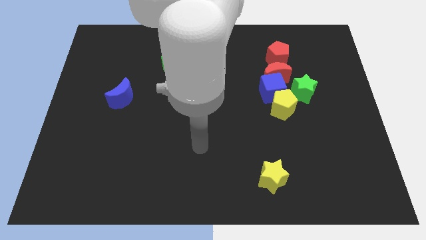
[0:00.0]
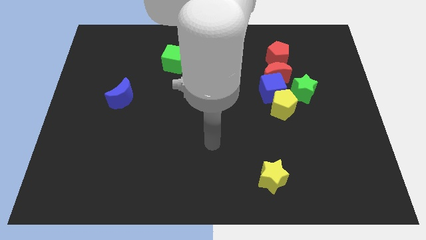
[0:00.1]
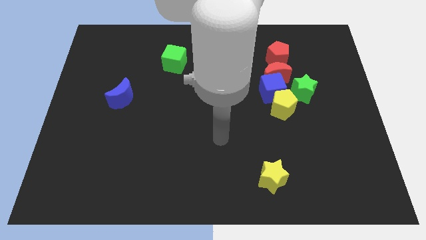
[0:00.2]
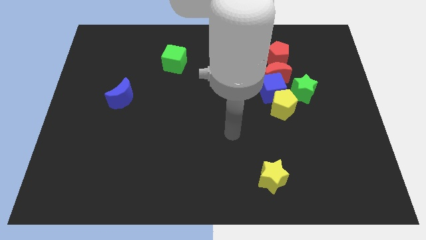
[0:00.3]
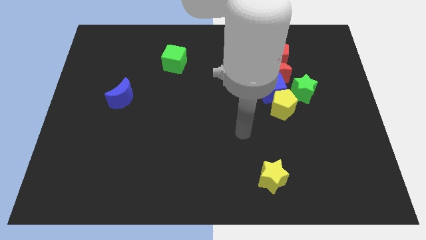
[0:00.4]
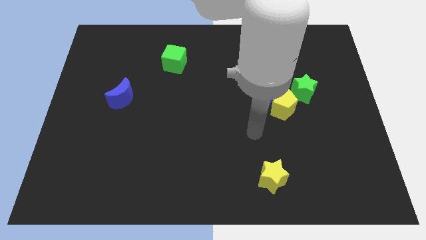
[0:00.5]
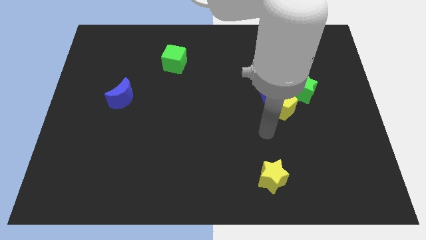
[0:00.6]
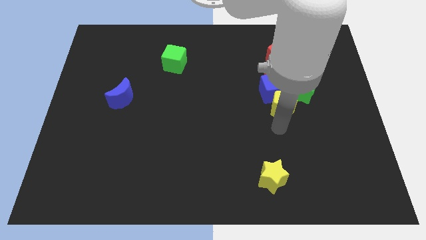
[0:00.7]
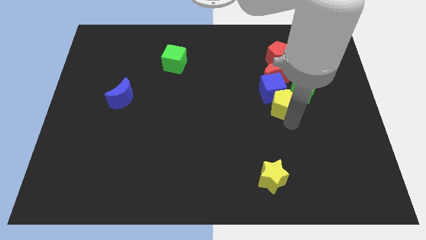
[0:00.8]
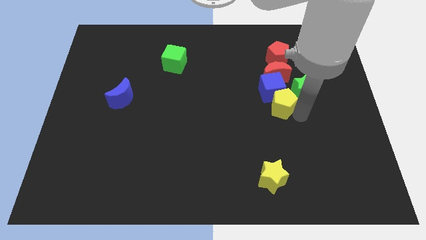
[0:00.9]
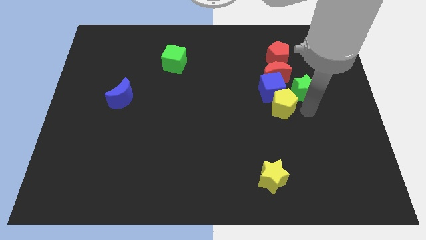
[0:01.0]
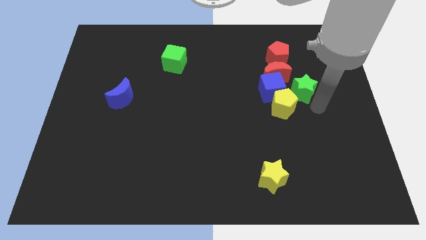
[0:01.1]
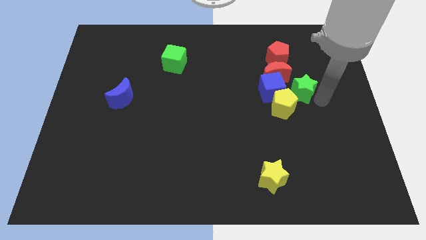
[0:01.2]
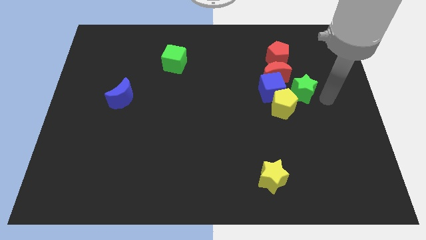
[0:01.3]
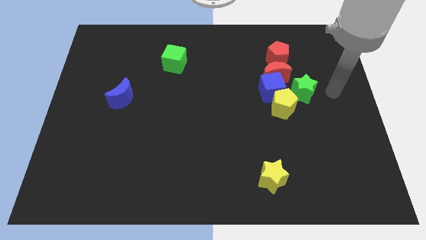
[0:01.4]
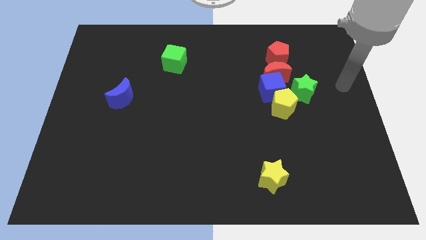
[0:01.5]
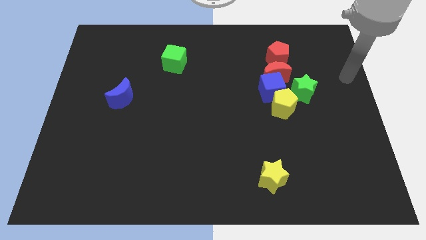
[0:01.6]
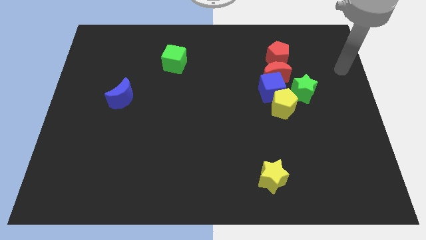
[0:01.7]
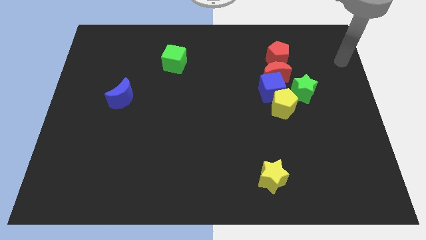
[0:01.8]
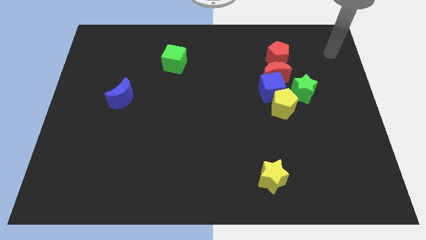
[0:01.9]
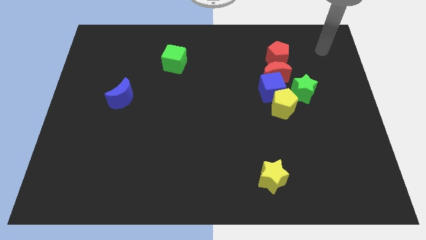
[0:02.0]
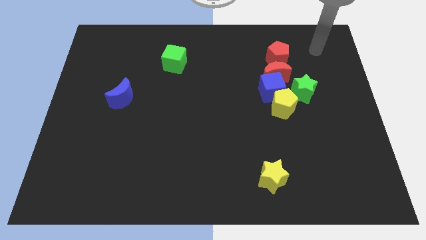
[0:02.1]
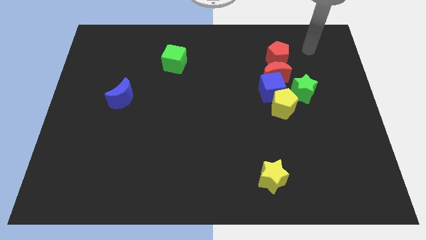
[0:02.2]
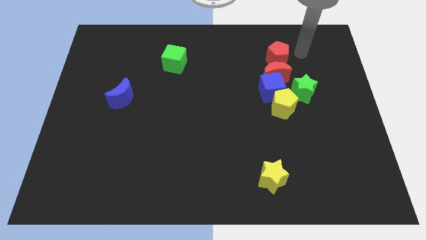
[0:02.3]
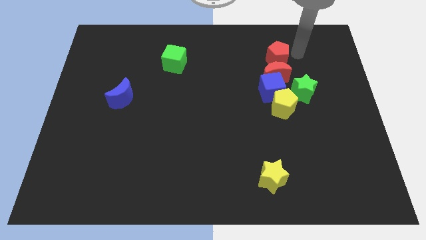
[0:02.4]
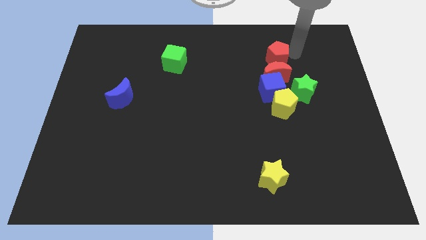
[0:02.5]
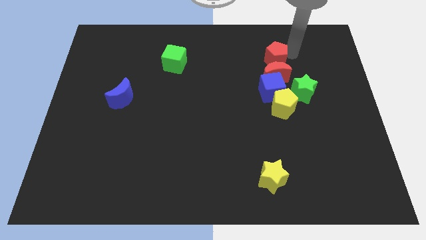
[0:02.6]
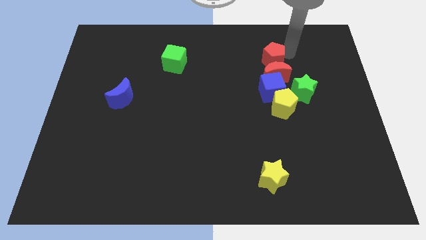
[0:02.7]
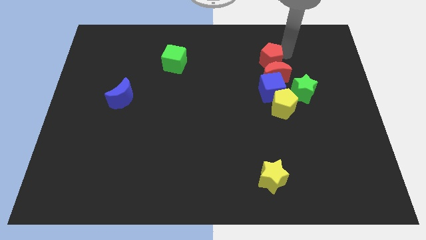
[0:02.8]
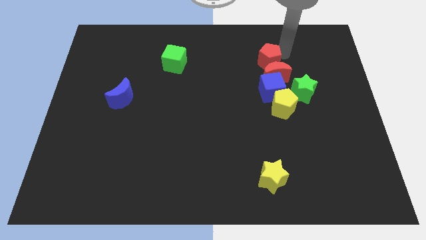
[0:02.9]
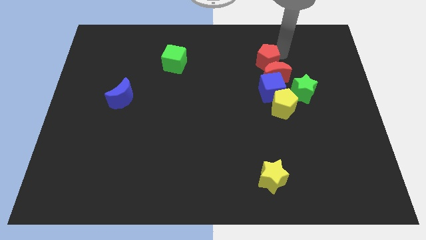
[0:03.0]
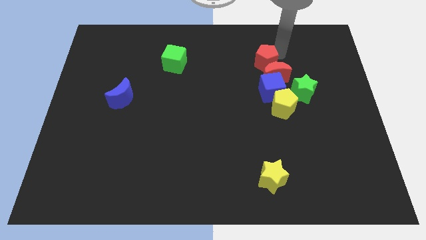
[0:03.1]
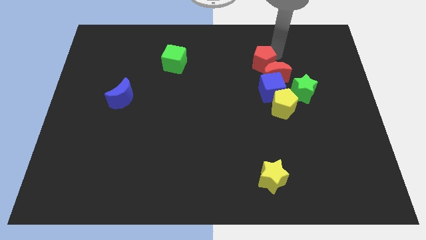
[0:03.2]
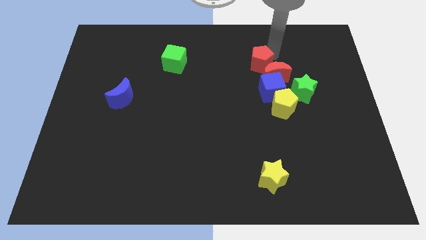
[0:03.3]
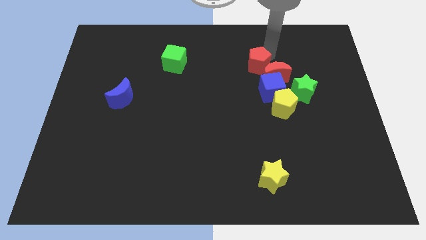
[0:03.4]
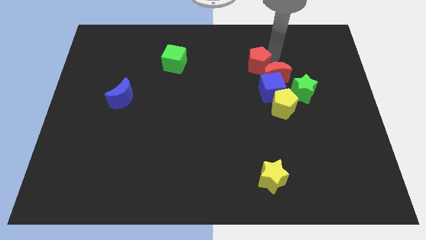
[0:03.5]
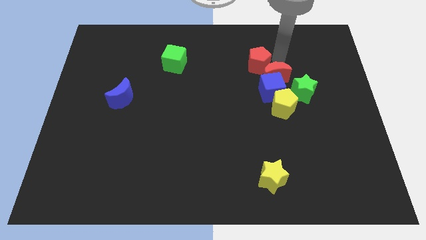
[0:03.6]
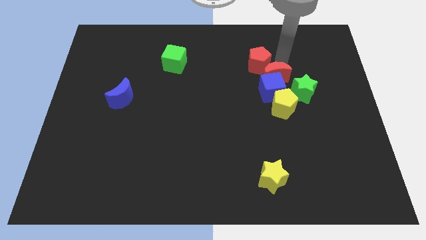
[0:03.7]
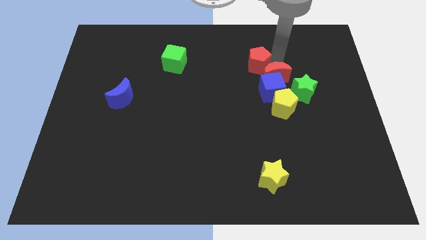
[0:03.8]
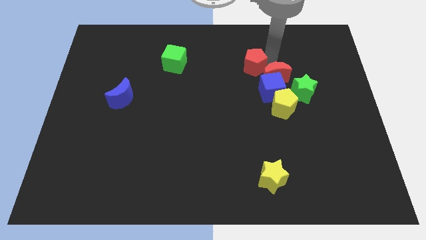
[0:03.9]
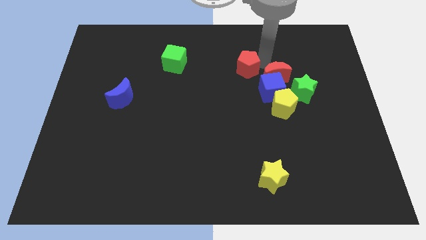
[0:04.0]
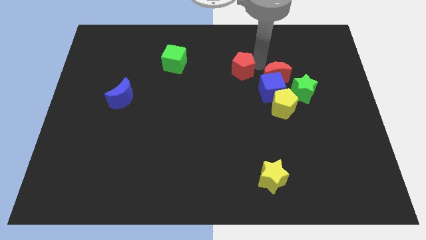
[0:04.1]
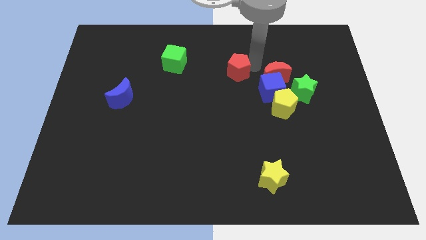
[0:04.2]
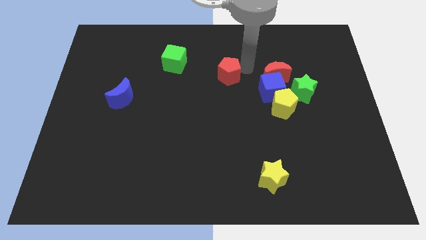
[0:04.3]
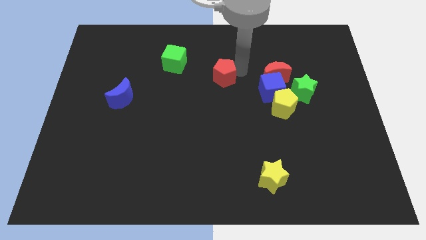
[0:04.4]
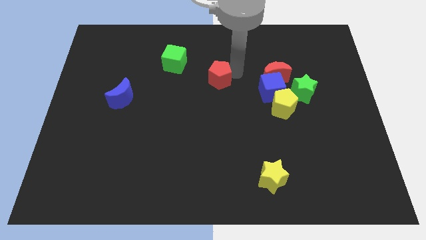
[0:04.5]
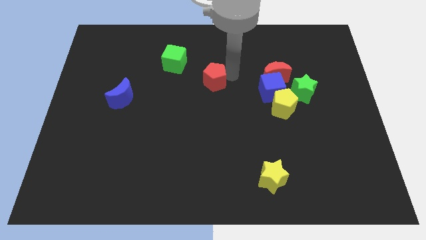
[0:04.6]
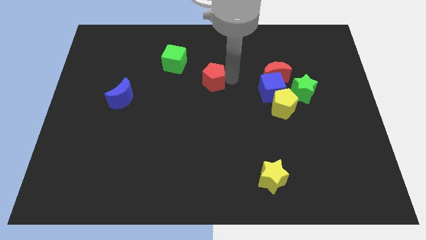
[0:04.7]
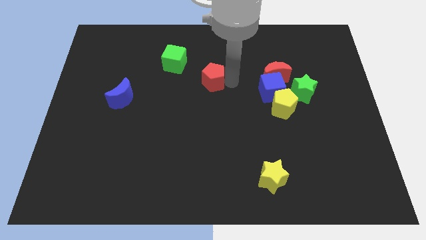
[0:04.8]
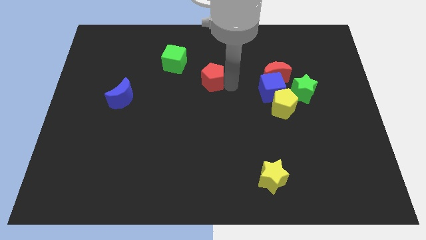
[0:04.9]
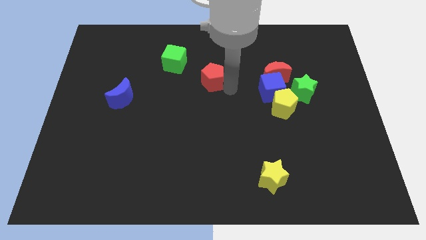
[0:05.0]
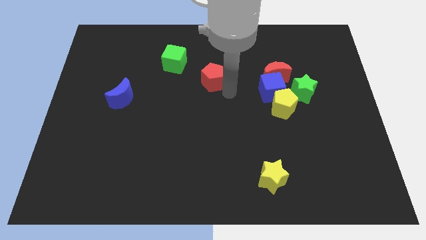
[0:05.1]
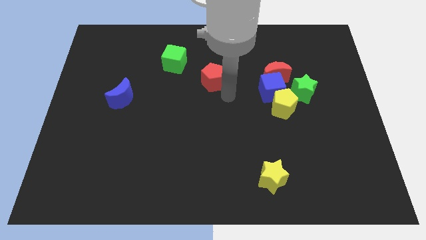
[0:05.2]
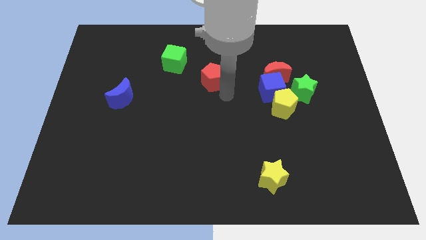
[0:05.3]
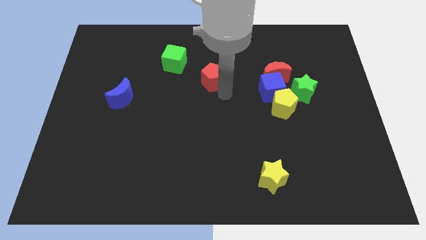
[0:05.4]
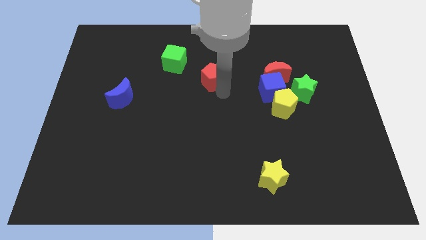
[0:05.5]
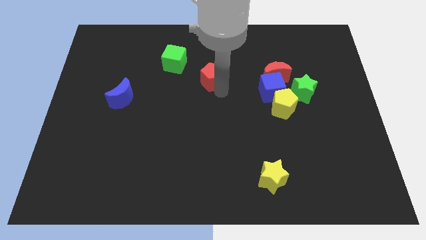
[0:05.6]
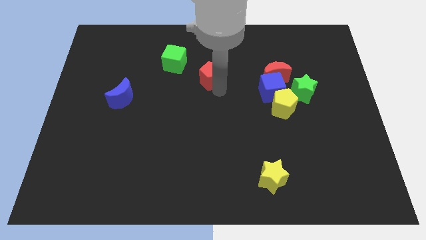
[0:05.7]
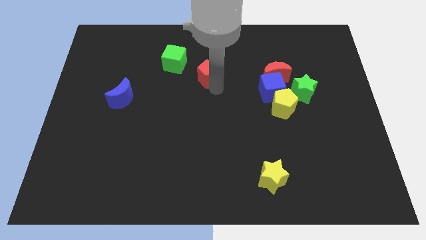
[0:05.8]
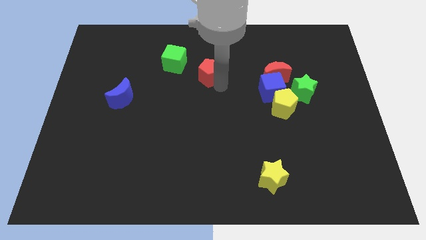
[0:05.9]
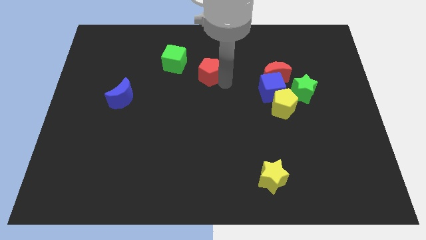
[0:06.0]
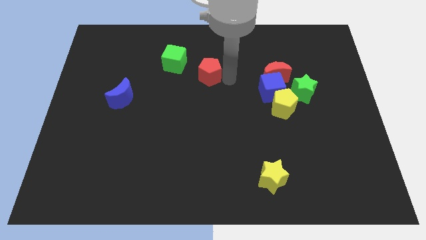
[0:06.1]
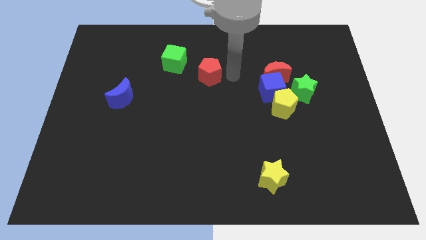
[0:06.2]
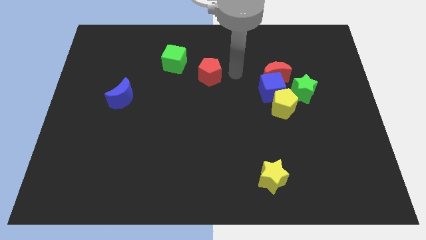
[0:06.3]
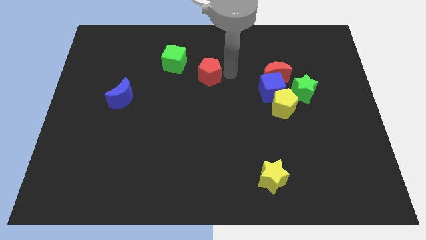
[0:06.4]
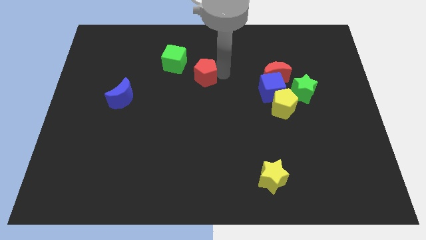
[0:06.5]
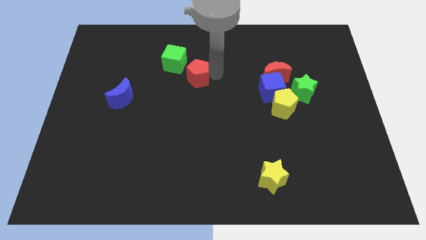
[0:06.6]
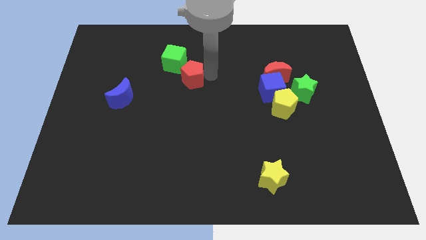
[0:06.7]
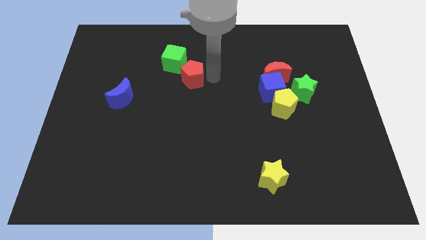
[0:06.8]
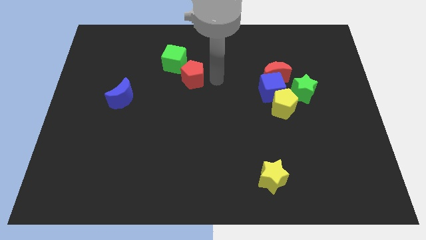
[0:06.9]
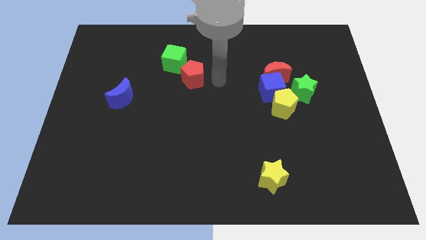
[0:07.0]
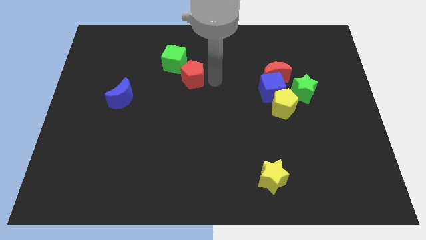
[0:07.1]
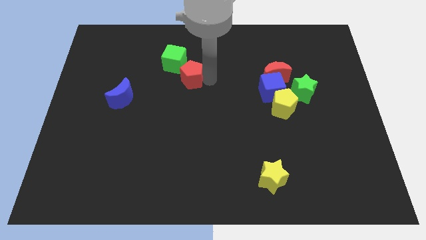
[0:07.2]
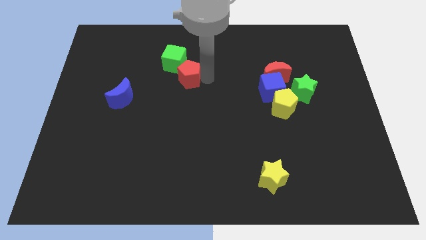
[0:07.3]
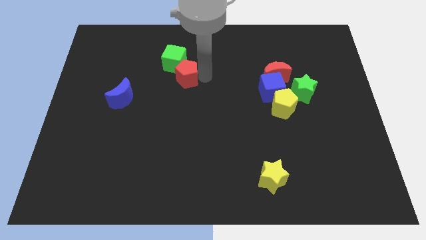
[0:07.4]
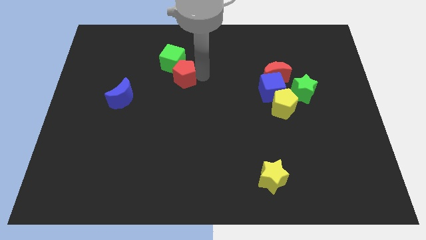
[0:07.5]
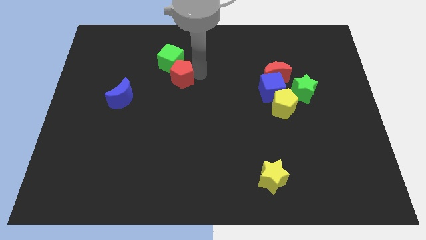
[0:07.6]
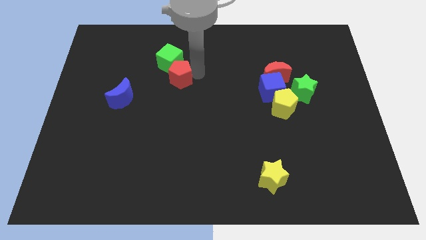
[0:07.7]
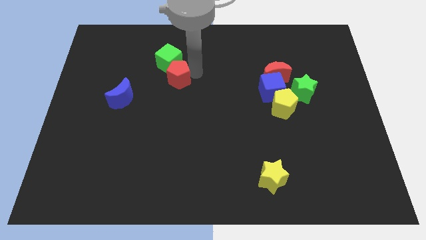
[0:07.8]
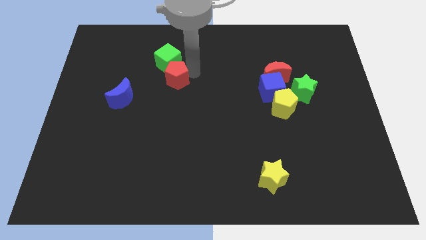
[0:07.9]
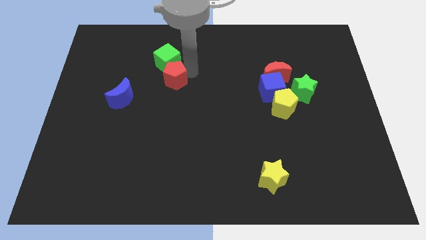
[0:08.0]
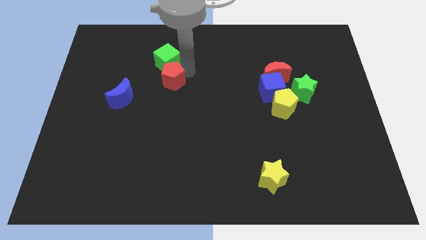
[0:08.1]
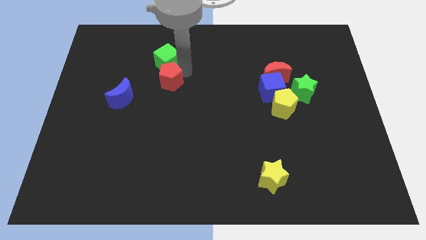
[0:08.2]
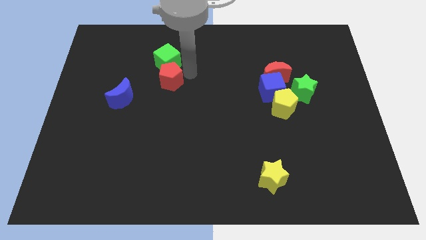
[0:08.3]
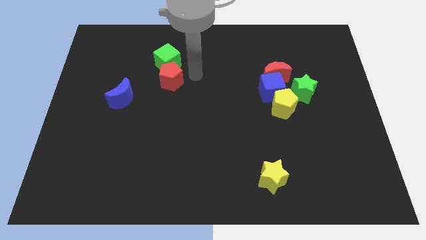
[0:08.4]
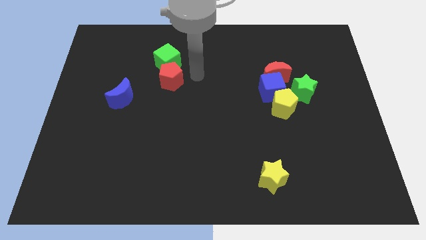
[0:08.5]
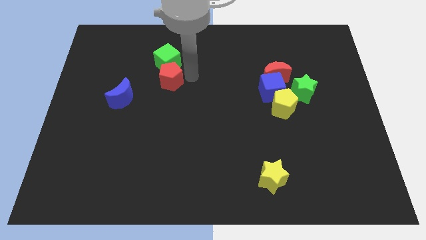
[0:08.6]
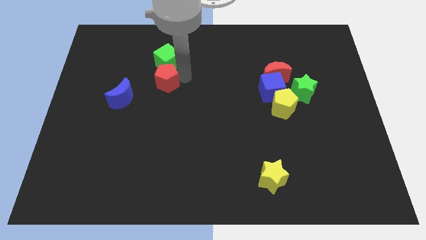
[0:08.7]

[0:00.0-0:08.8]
push the red pentagon diagonally up and to the right of the blue moon
